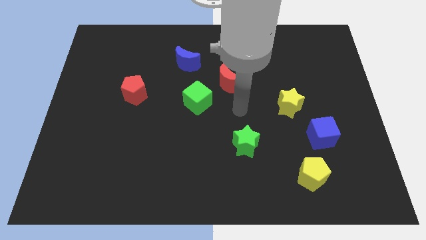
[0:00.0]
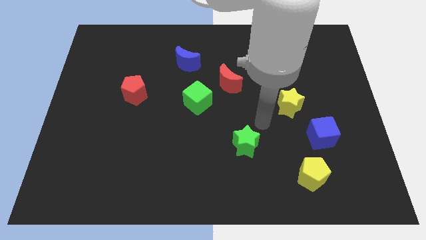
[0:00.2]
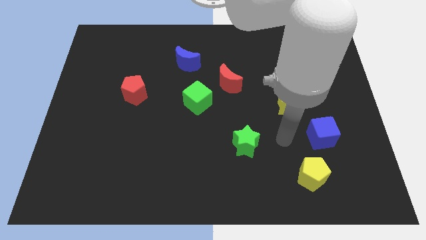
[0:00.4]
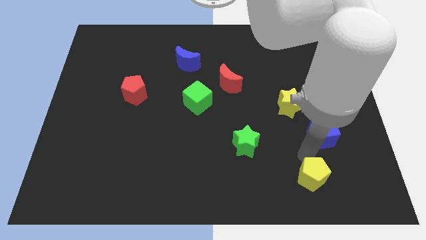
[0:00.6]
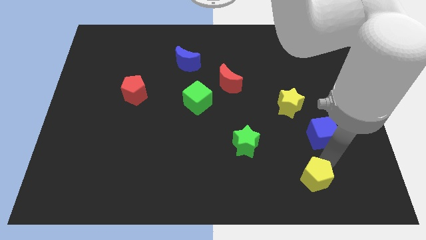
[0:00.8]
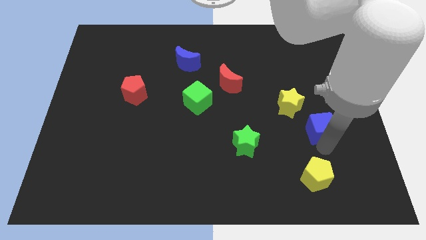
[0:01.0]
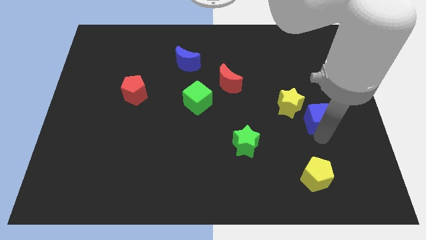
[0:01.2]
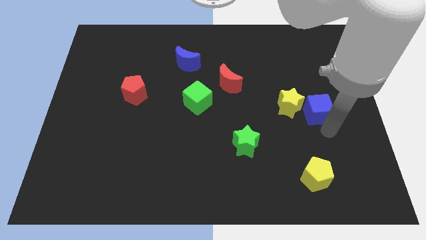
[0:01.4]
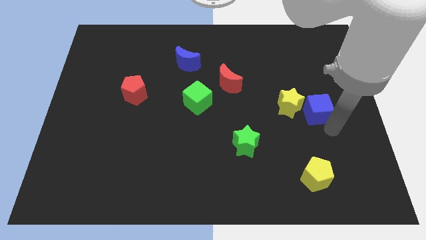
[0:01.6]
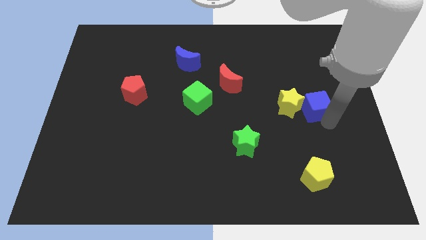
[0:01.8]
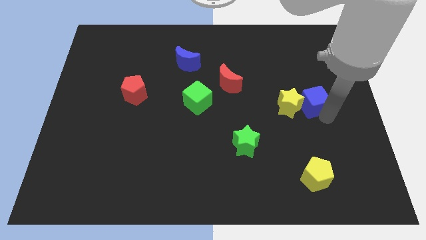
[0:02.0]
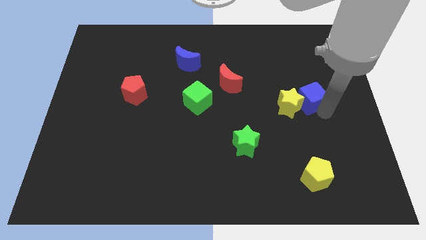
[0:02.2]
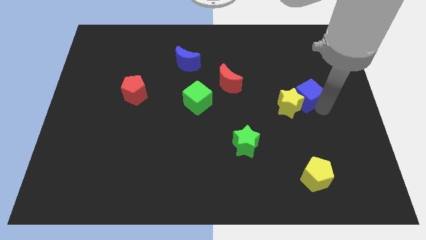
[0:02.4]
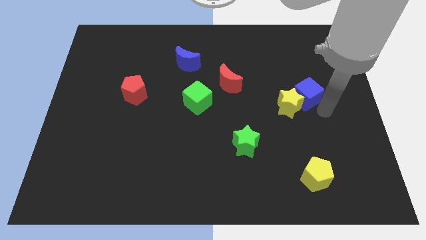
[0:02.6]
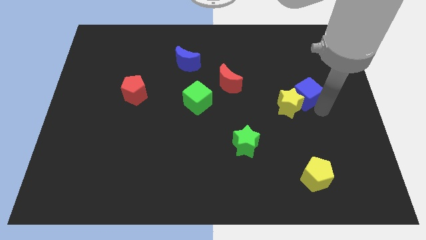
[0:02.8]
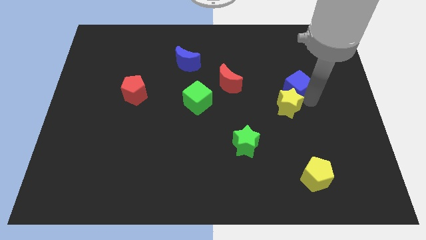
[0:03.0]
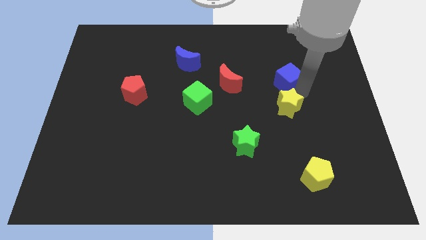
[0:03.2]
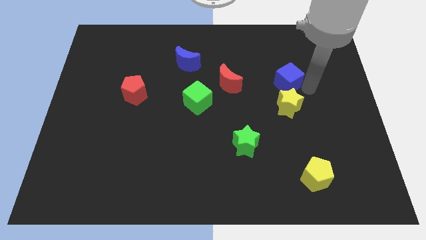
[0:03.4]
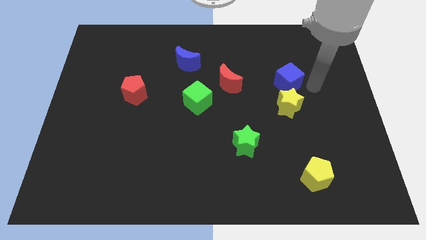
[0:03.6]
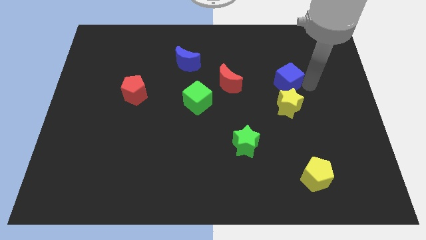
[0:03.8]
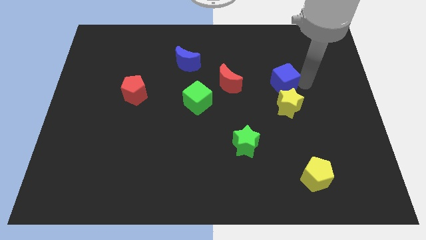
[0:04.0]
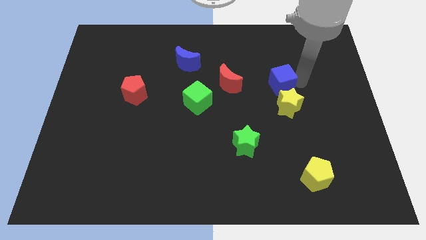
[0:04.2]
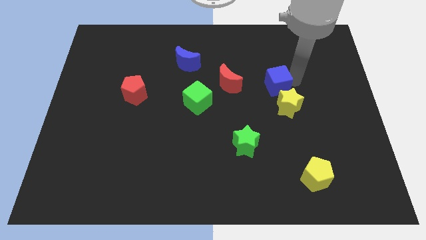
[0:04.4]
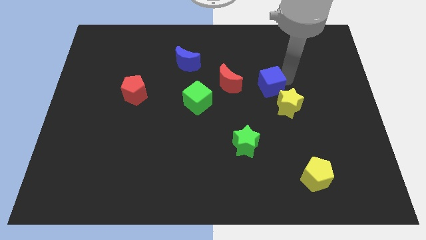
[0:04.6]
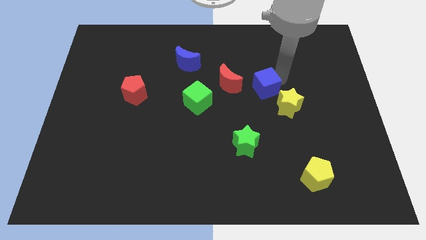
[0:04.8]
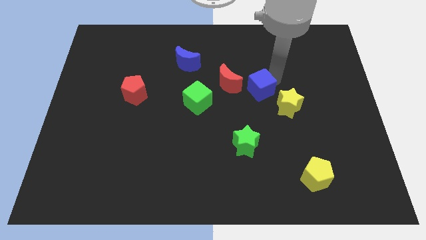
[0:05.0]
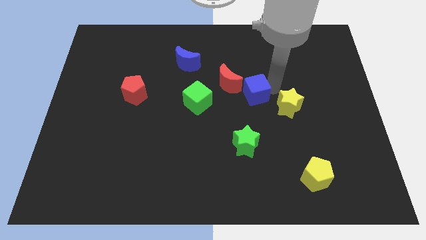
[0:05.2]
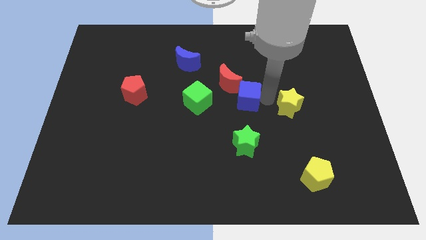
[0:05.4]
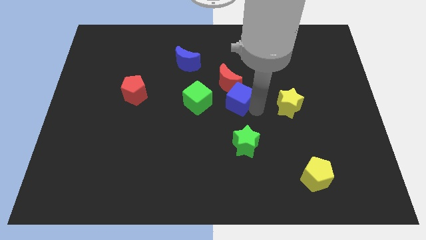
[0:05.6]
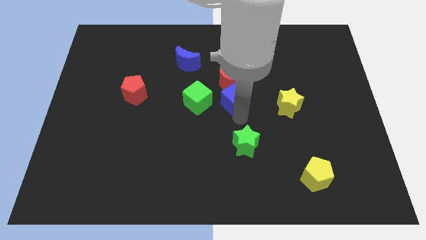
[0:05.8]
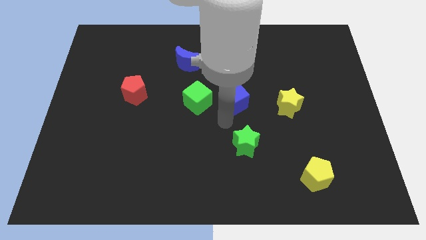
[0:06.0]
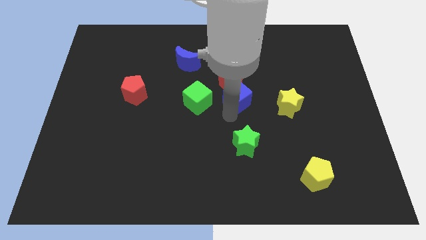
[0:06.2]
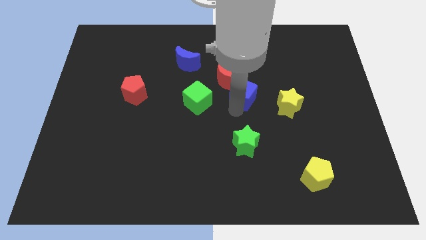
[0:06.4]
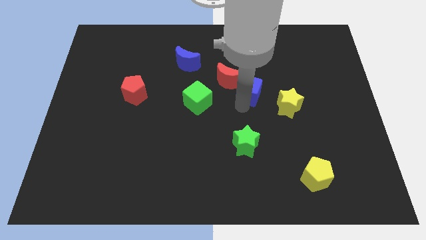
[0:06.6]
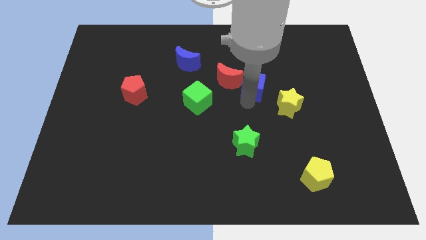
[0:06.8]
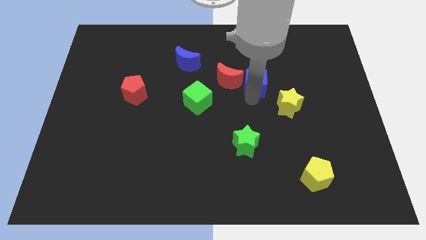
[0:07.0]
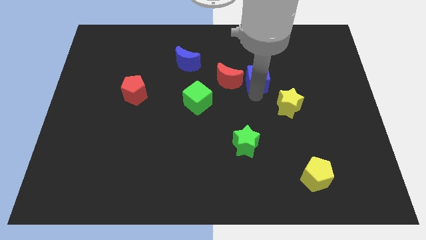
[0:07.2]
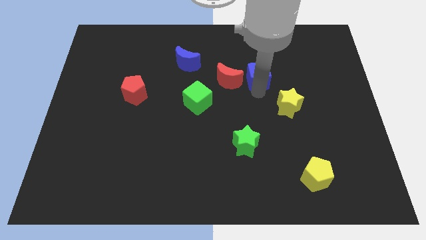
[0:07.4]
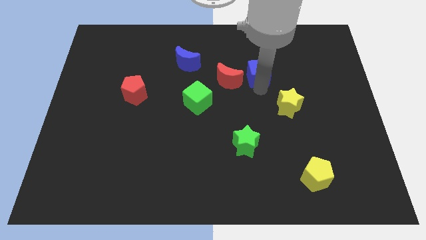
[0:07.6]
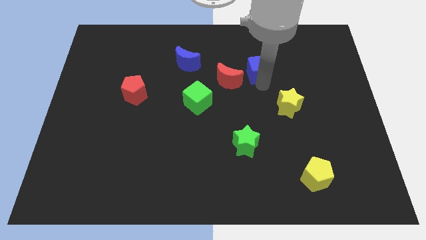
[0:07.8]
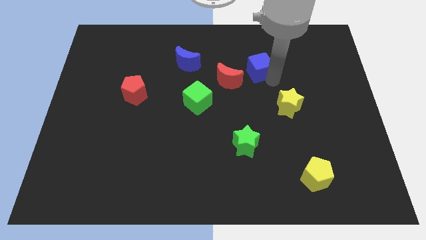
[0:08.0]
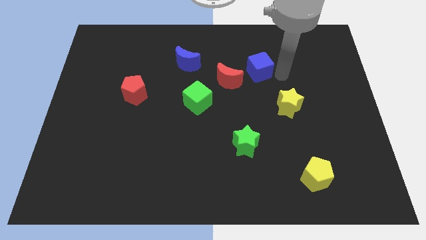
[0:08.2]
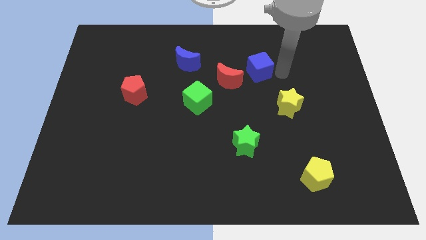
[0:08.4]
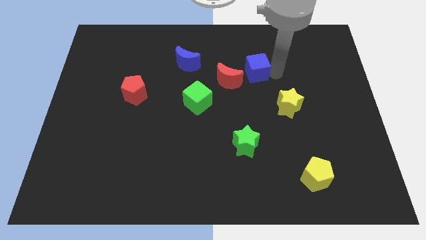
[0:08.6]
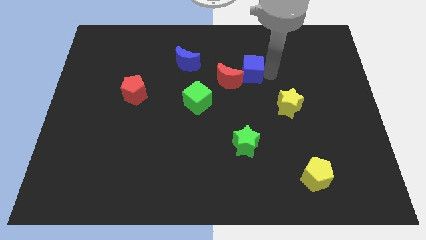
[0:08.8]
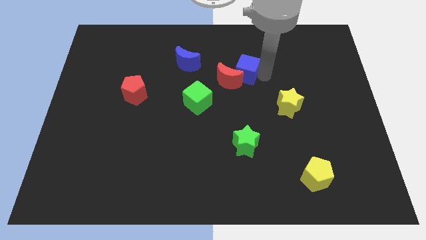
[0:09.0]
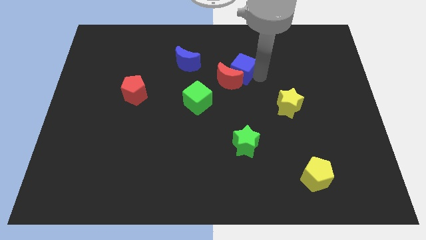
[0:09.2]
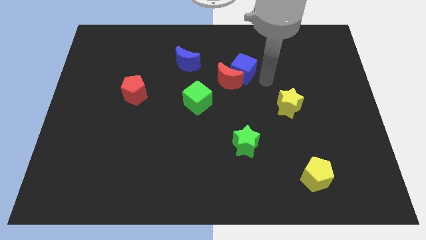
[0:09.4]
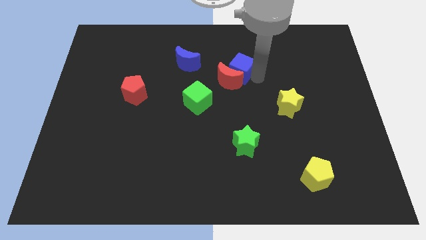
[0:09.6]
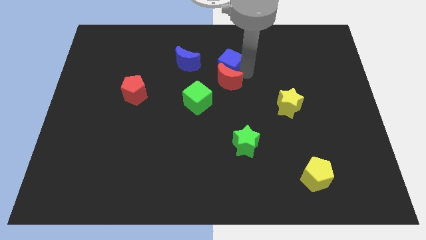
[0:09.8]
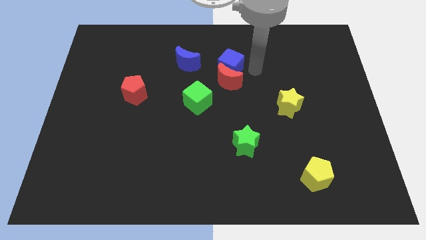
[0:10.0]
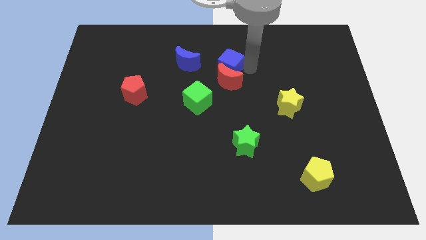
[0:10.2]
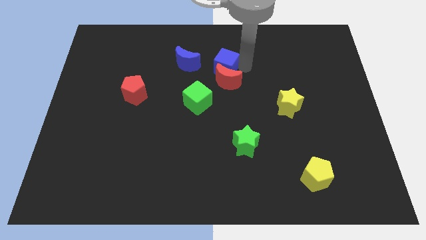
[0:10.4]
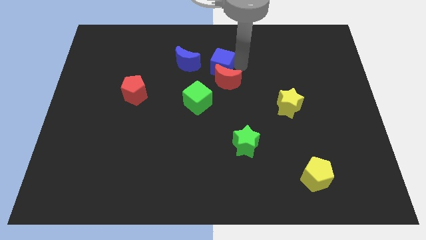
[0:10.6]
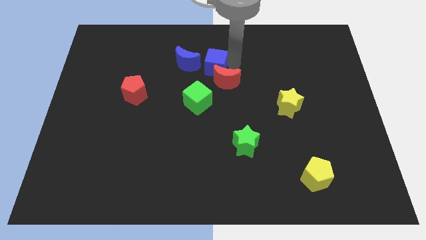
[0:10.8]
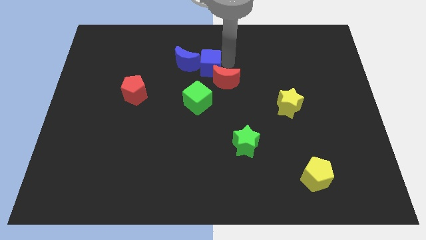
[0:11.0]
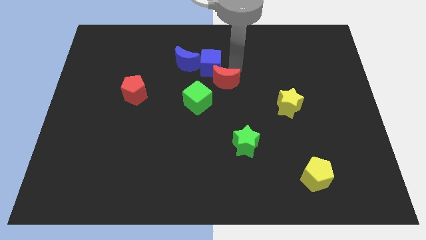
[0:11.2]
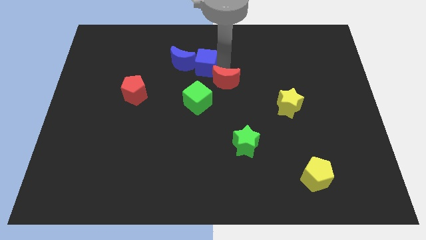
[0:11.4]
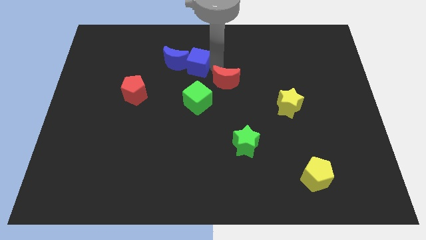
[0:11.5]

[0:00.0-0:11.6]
put the blue cube next to the blue moon

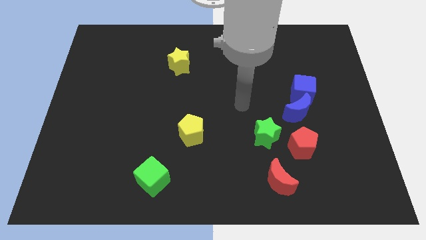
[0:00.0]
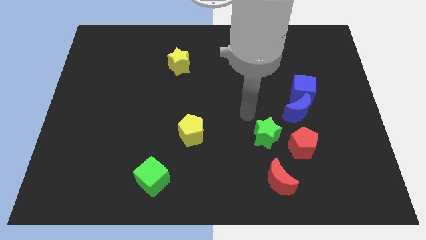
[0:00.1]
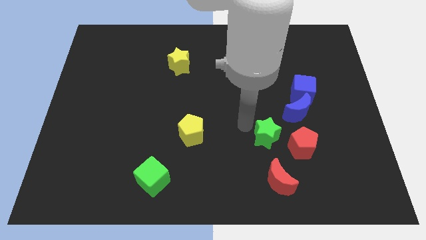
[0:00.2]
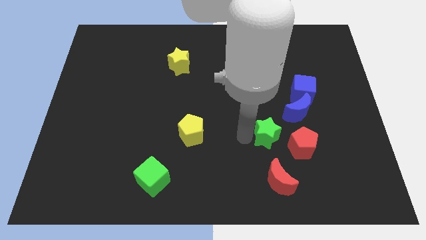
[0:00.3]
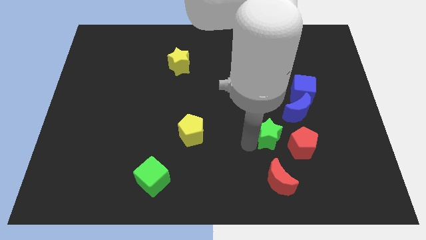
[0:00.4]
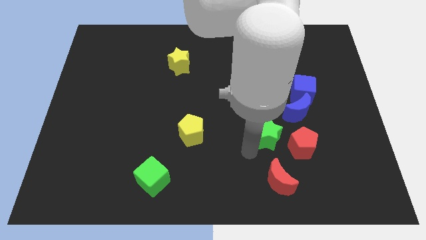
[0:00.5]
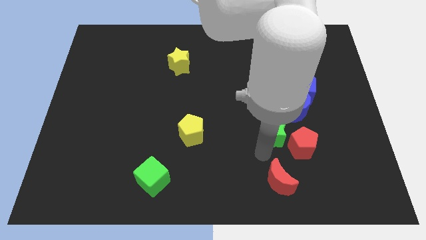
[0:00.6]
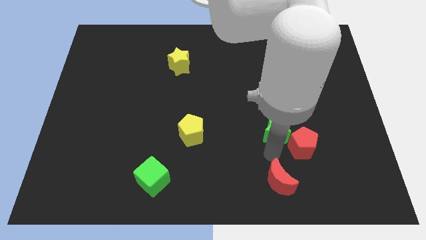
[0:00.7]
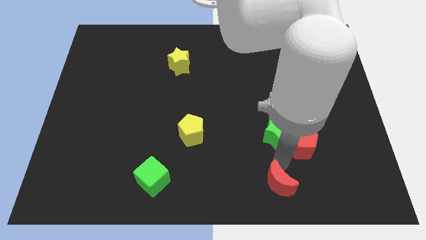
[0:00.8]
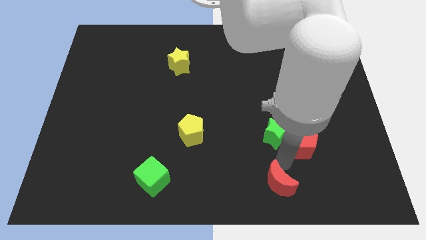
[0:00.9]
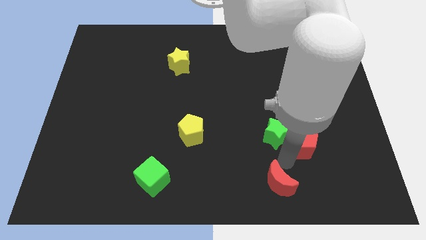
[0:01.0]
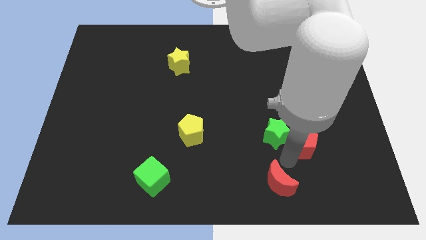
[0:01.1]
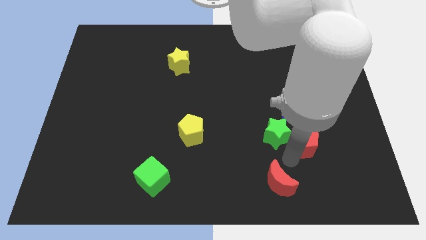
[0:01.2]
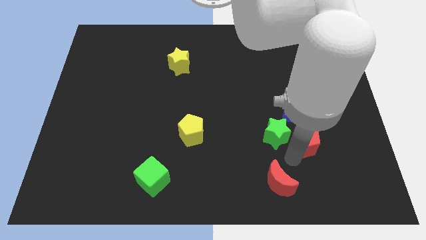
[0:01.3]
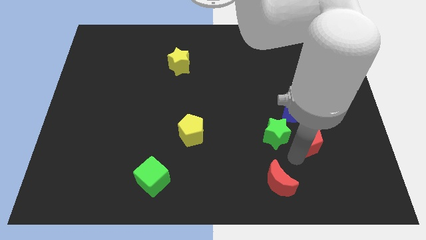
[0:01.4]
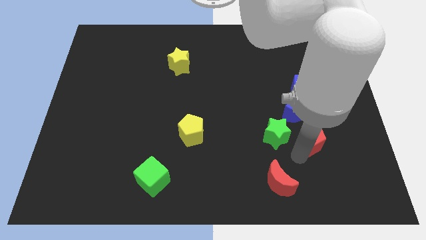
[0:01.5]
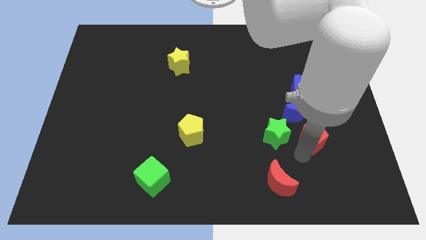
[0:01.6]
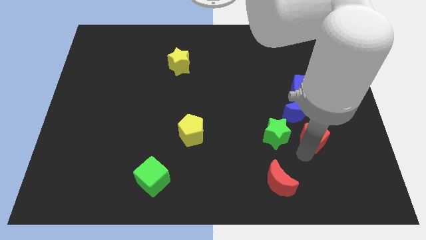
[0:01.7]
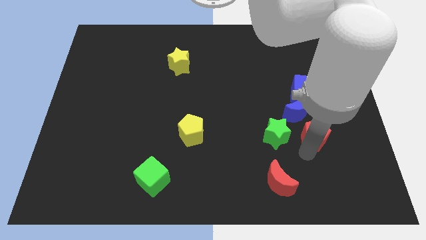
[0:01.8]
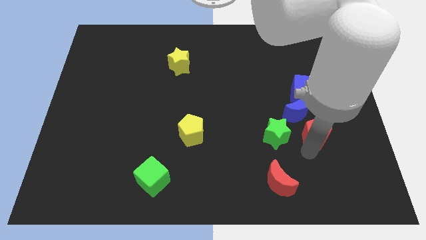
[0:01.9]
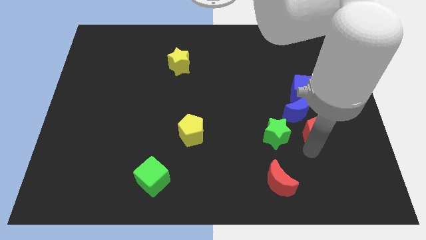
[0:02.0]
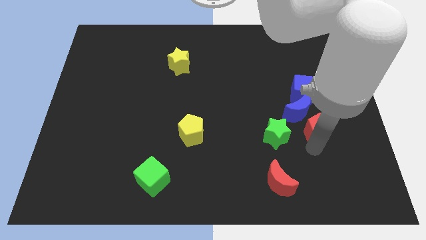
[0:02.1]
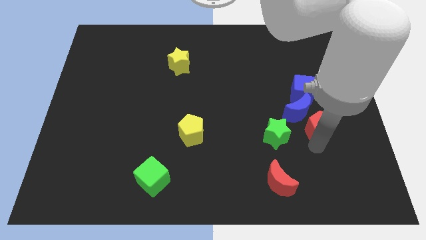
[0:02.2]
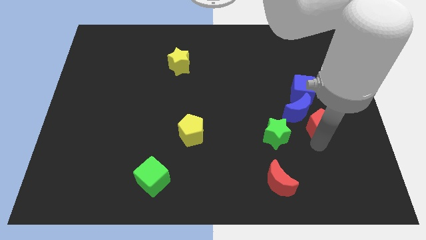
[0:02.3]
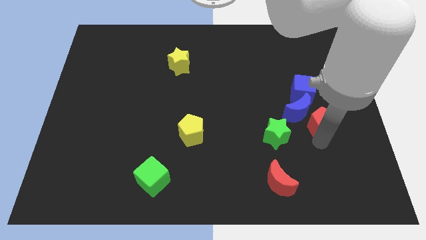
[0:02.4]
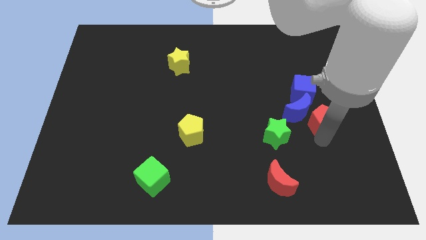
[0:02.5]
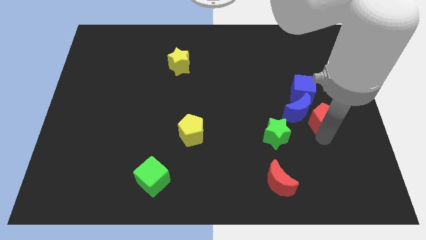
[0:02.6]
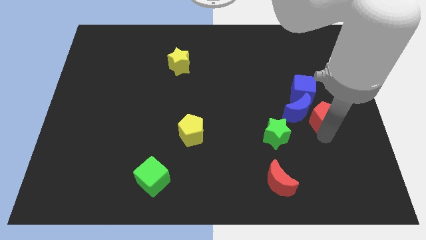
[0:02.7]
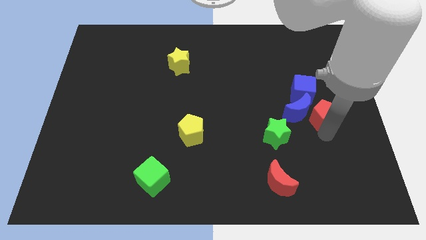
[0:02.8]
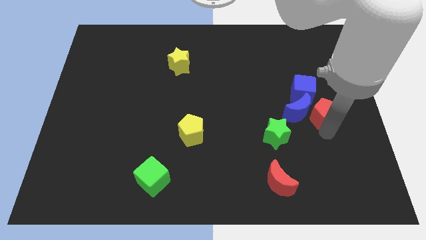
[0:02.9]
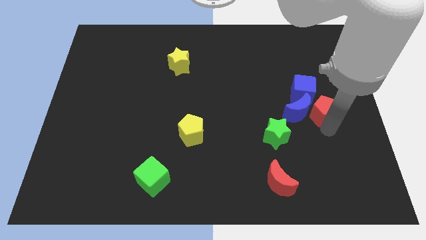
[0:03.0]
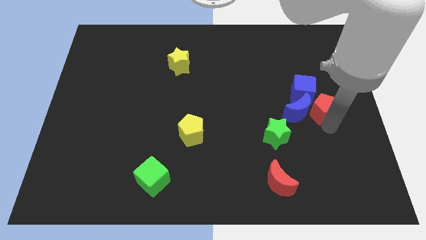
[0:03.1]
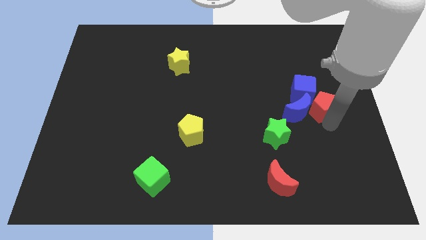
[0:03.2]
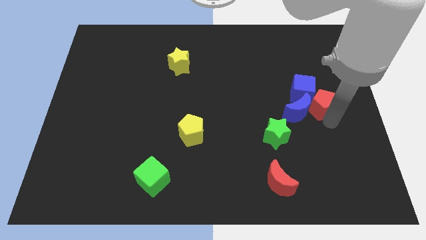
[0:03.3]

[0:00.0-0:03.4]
slide the red pentagon to the blue cube
